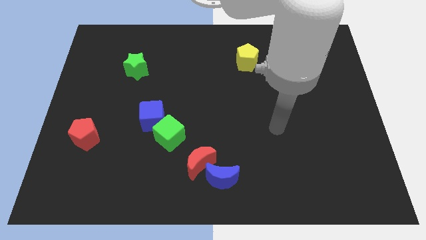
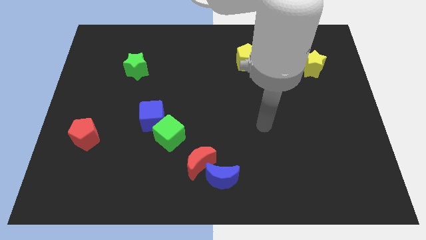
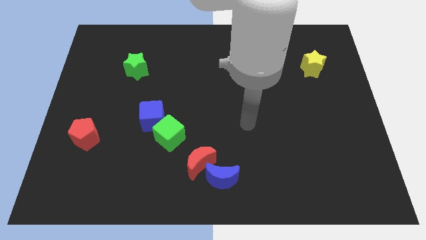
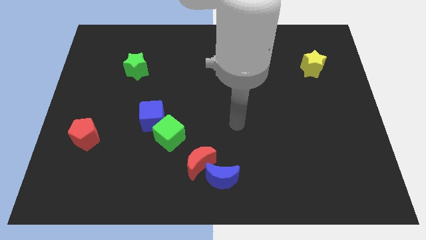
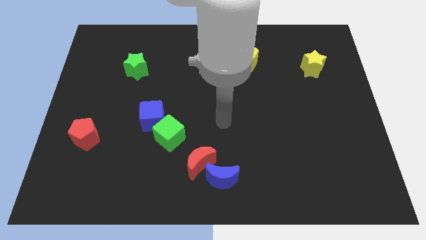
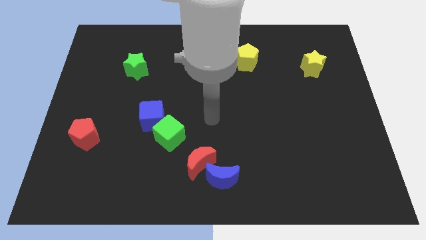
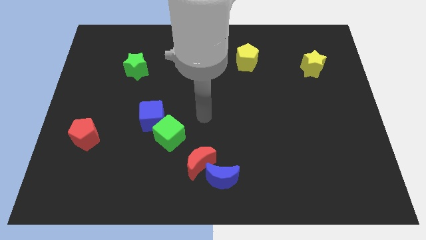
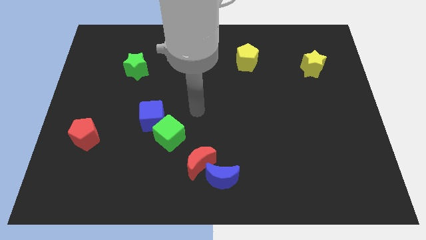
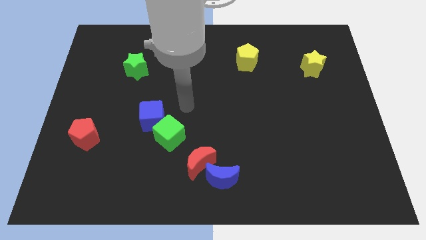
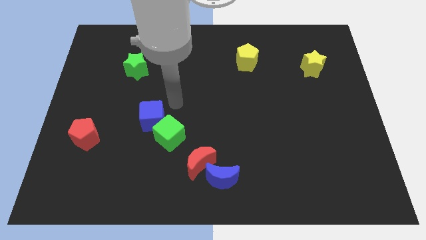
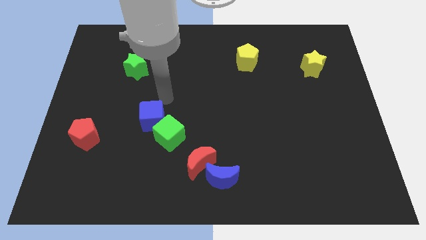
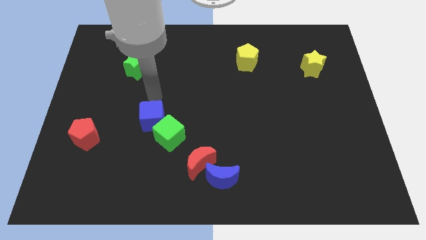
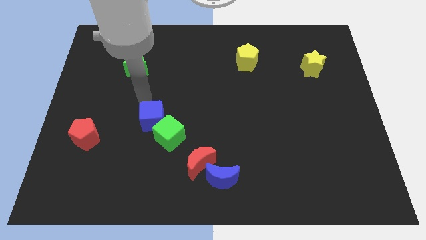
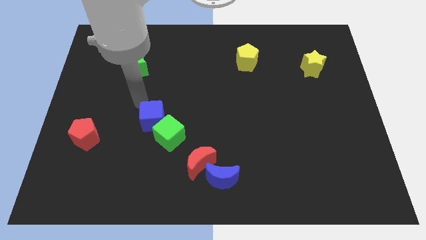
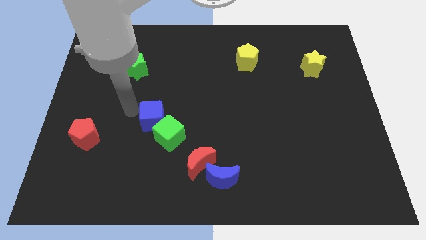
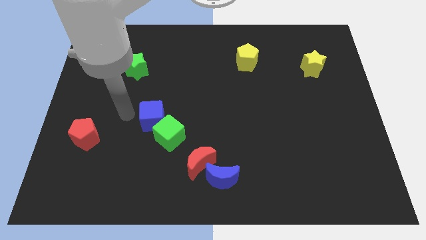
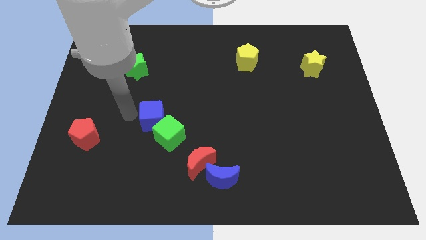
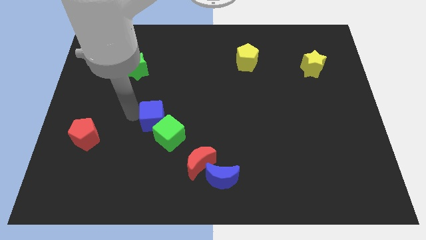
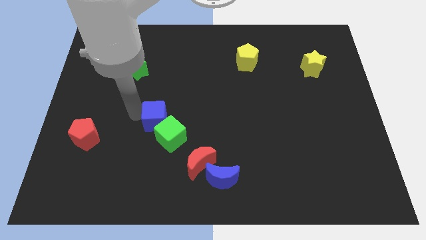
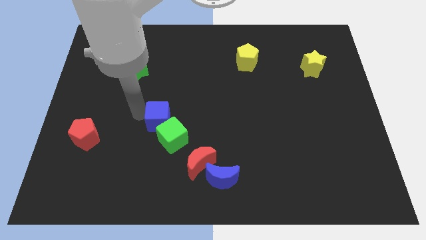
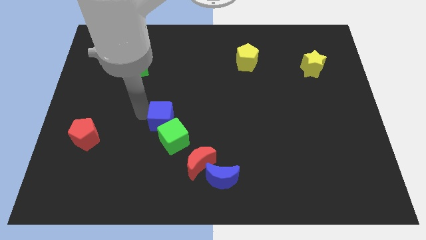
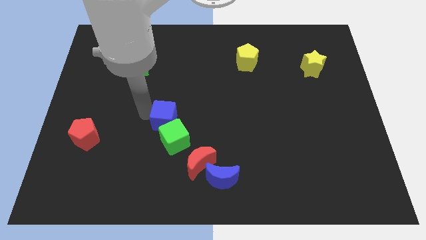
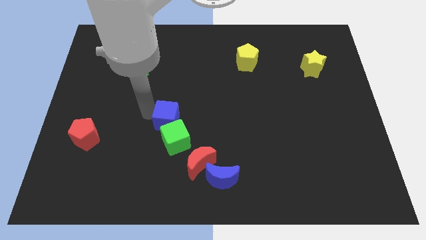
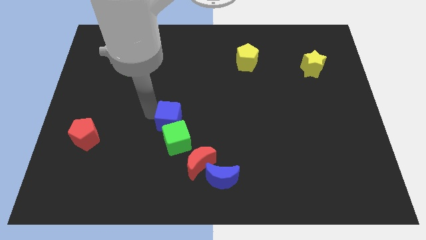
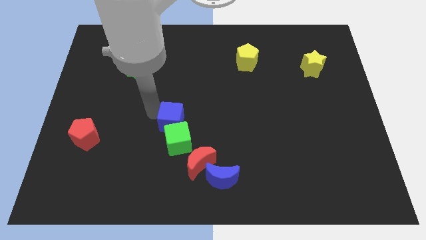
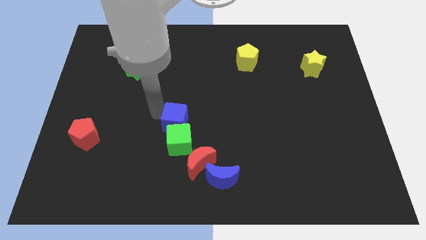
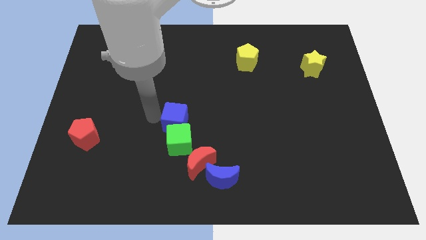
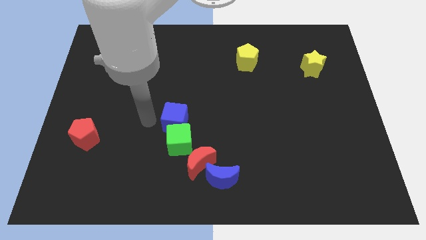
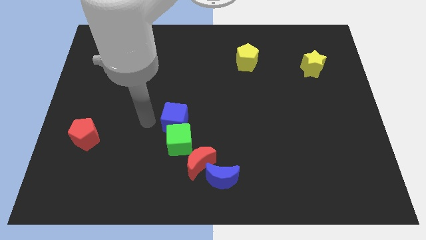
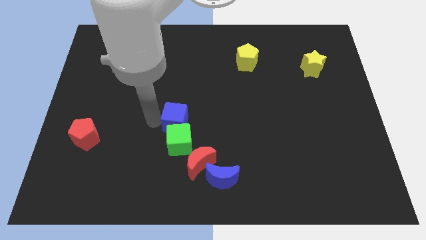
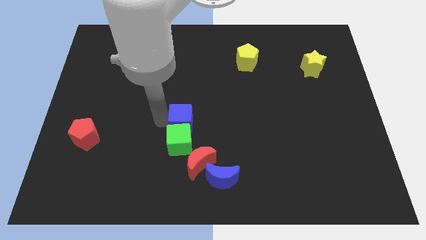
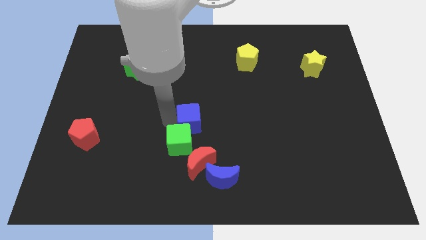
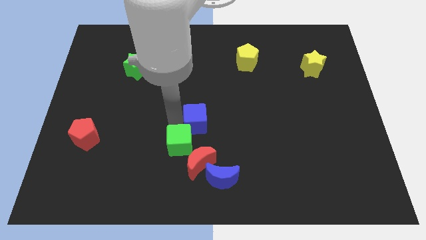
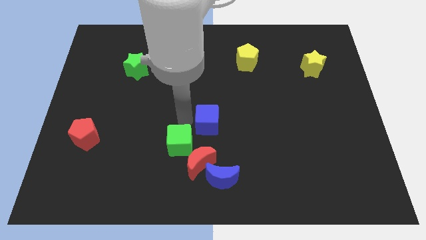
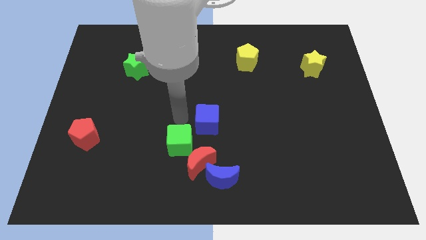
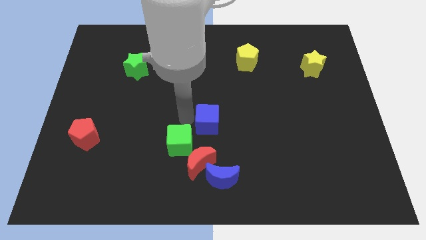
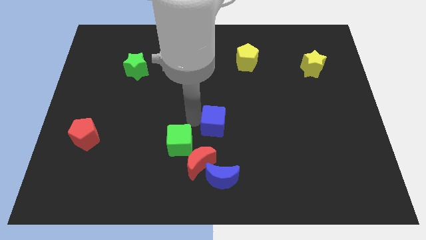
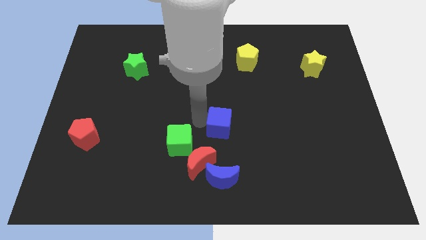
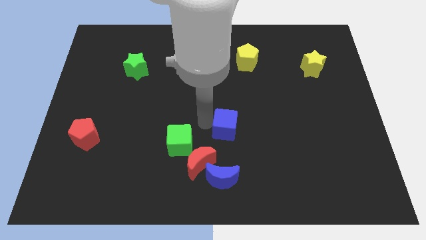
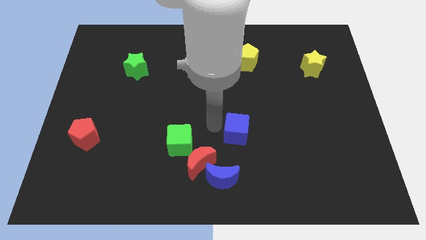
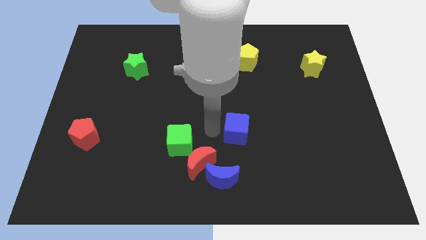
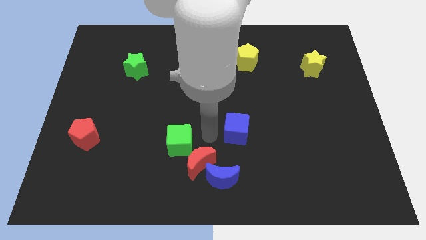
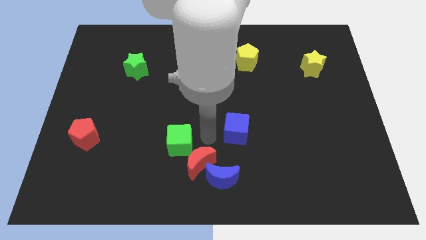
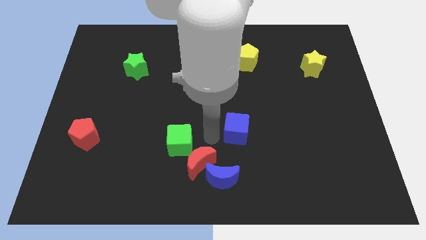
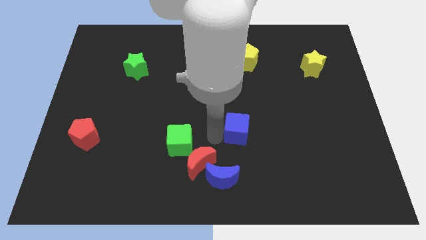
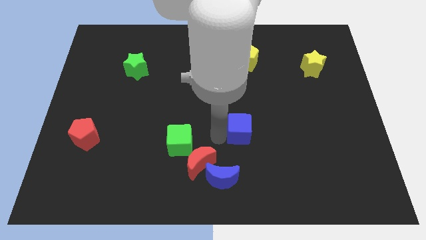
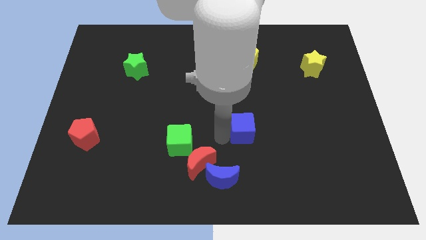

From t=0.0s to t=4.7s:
push the blue cube right

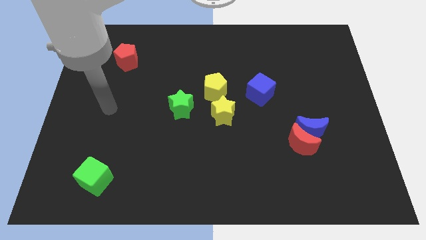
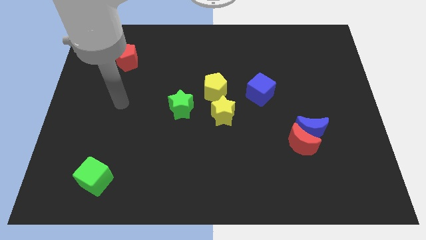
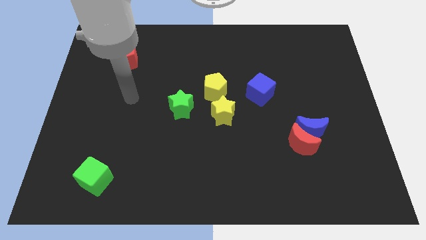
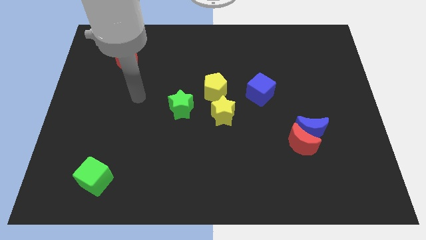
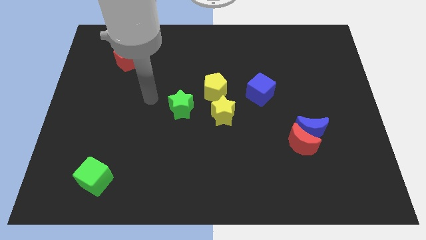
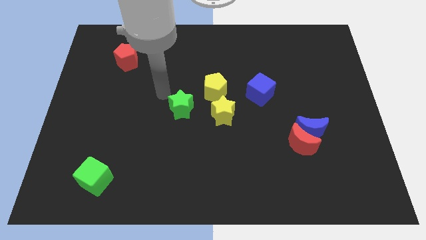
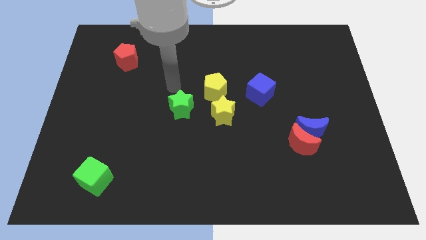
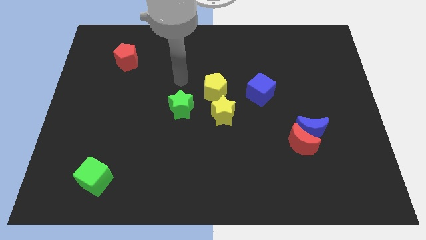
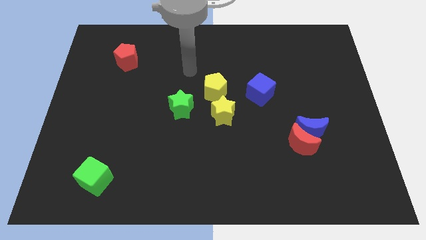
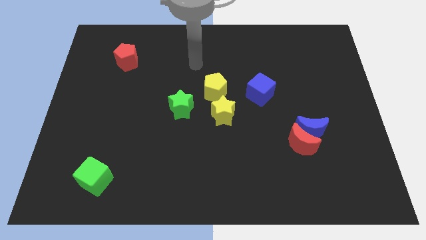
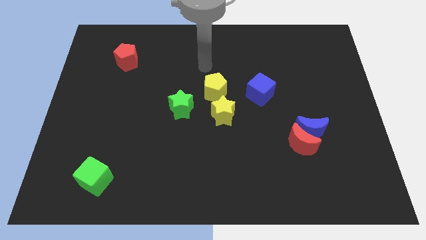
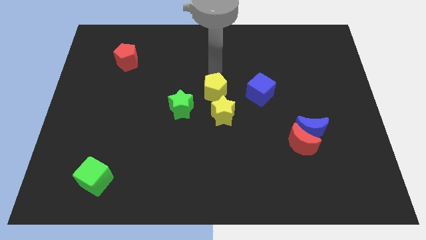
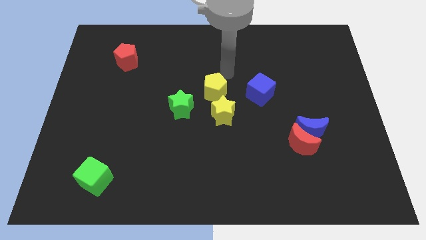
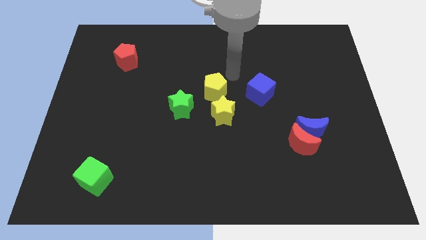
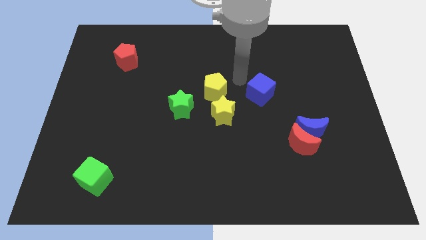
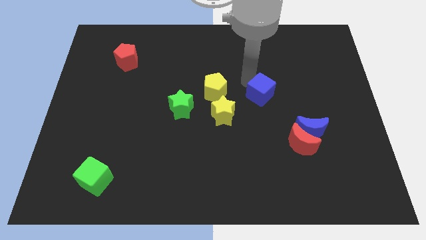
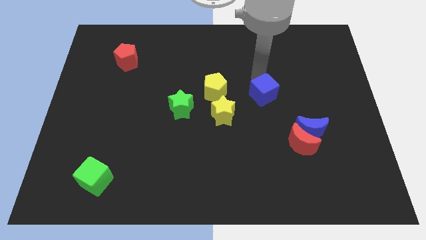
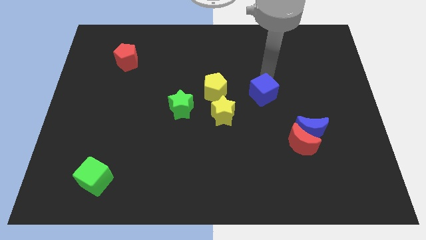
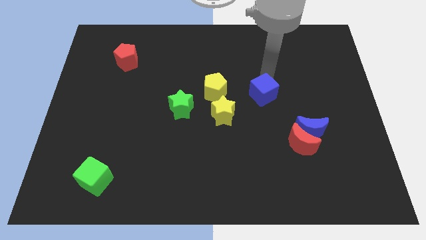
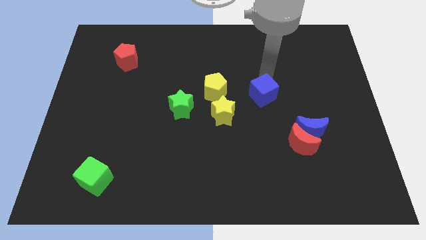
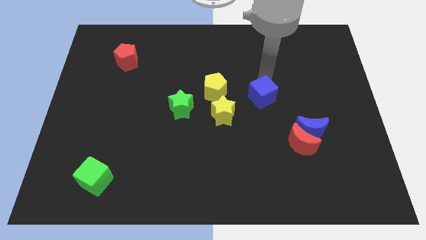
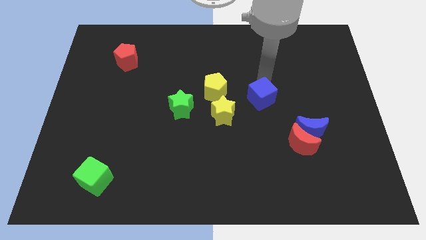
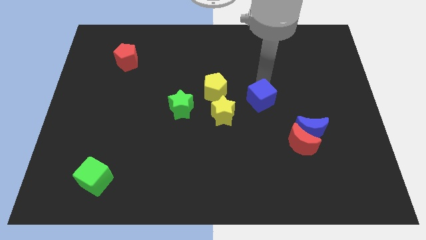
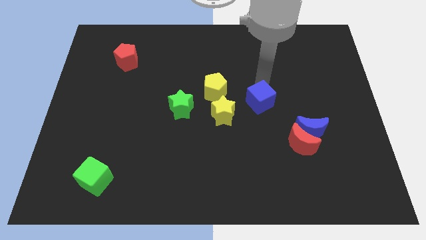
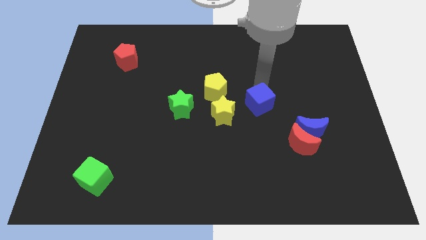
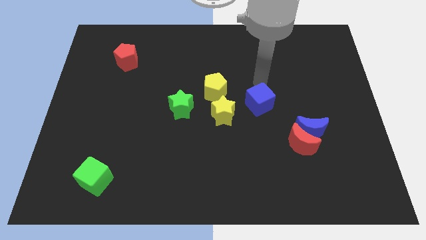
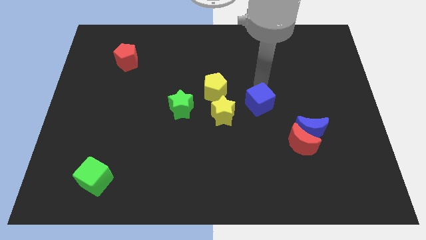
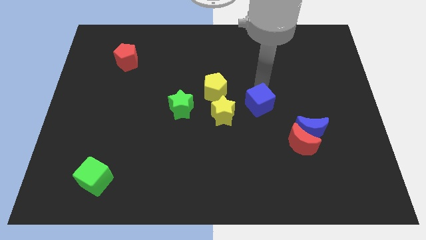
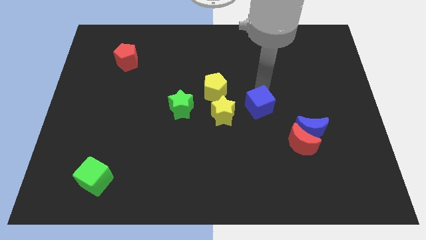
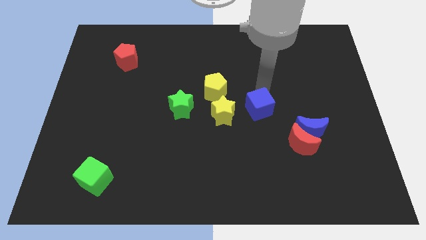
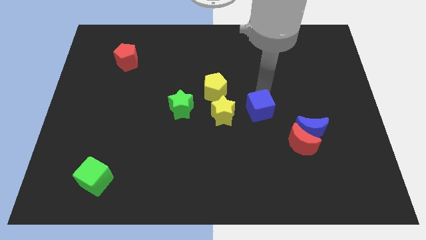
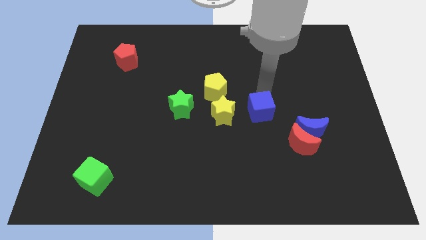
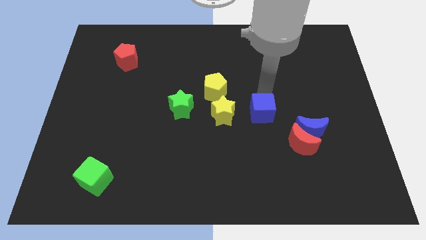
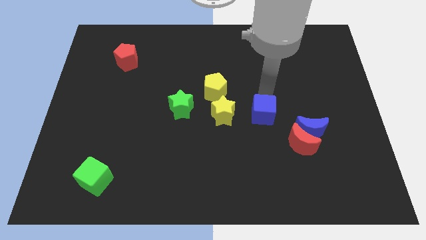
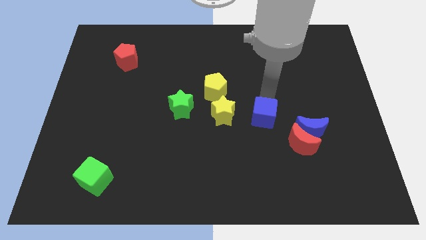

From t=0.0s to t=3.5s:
push the blue cube downwards somewhat
